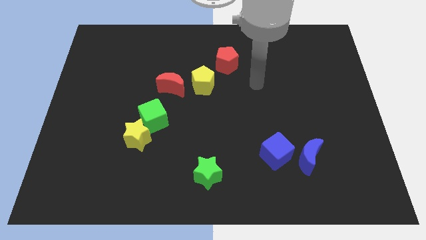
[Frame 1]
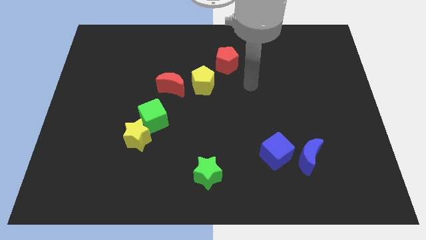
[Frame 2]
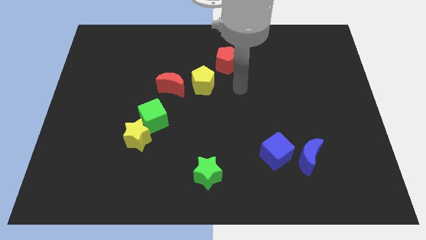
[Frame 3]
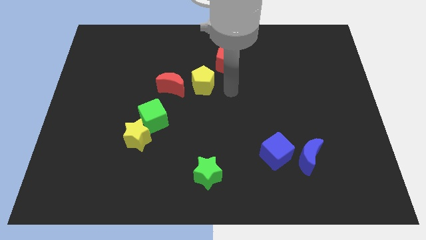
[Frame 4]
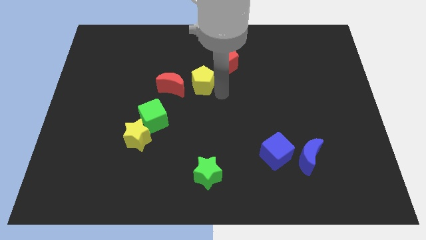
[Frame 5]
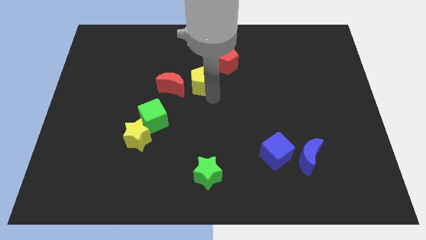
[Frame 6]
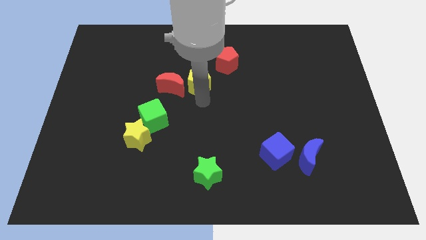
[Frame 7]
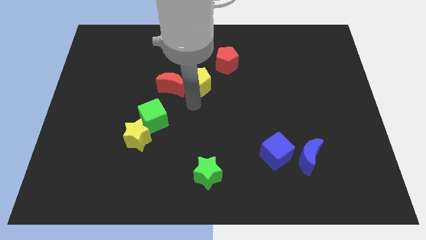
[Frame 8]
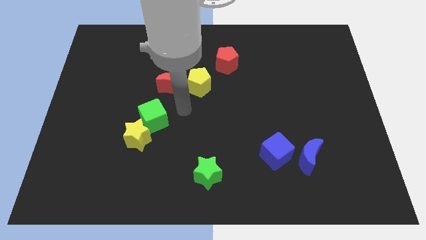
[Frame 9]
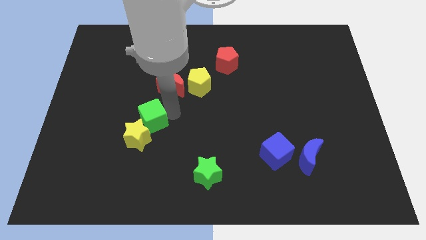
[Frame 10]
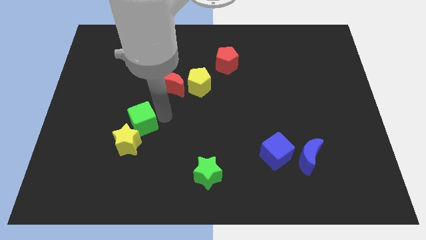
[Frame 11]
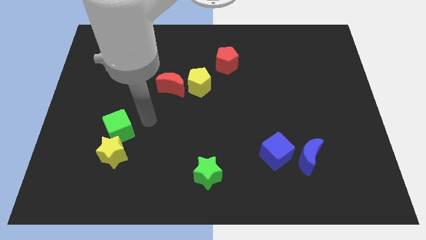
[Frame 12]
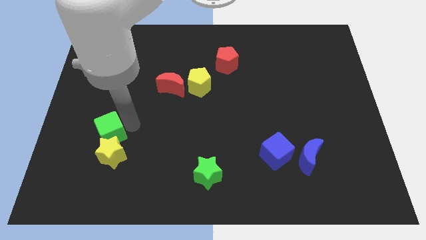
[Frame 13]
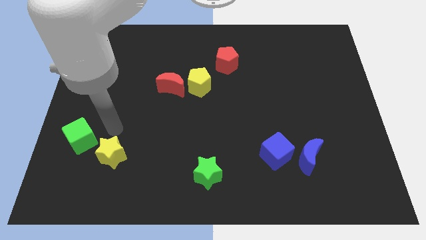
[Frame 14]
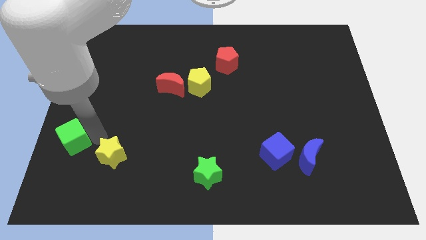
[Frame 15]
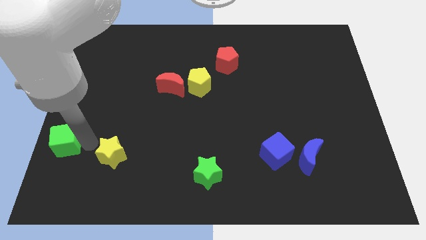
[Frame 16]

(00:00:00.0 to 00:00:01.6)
separate the yellow star from the green cube

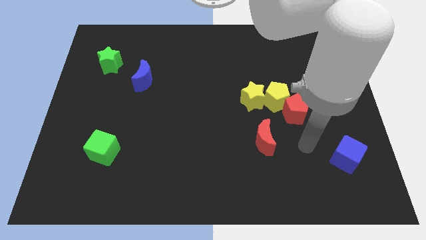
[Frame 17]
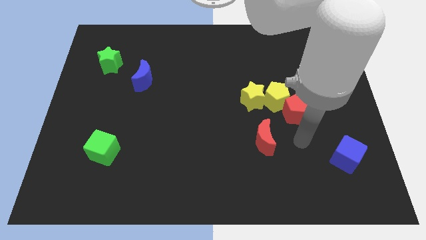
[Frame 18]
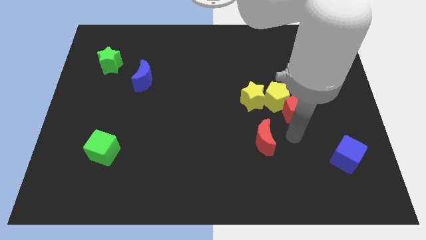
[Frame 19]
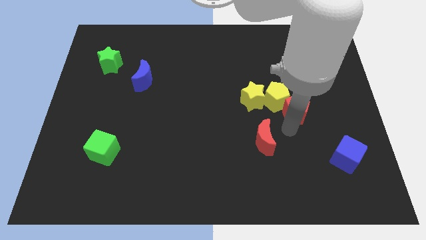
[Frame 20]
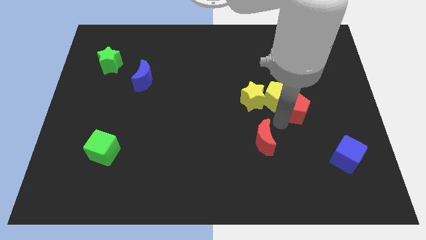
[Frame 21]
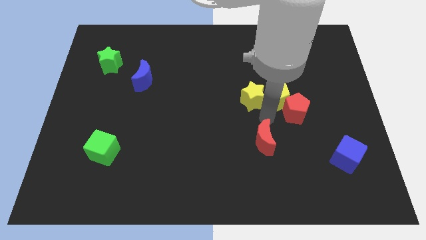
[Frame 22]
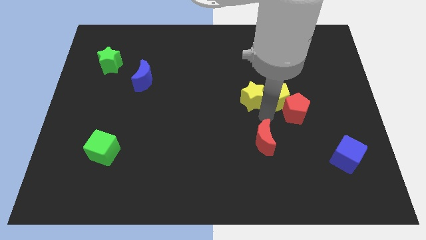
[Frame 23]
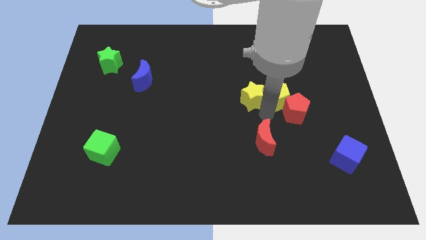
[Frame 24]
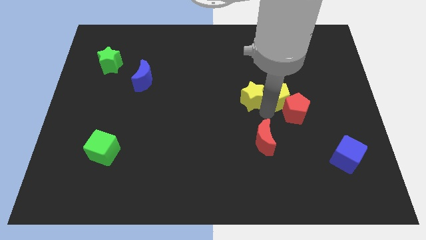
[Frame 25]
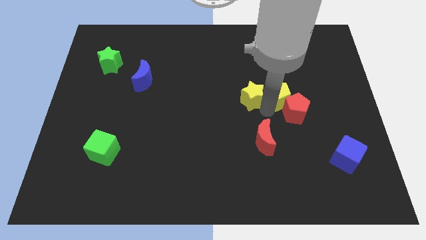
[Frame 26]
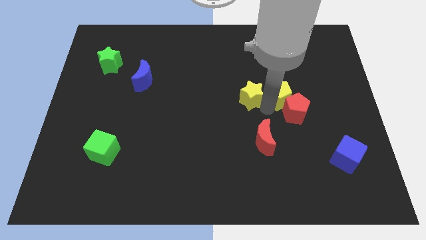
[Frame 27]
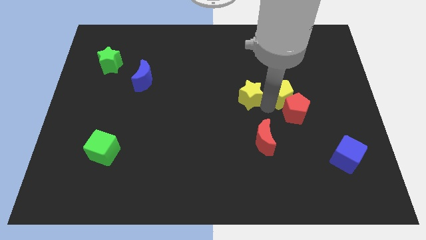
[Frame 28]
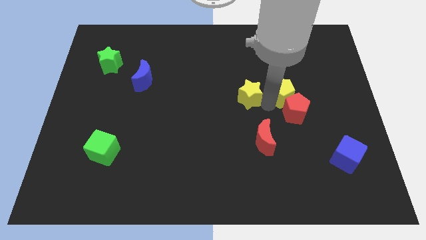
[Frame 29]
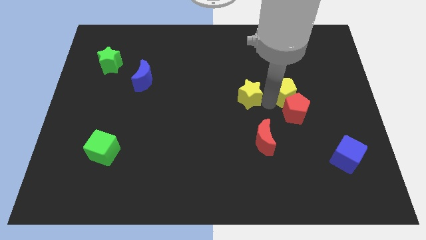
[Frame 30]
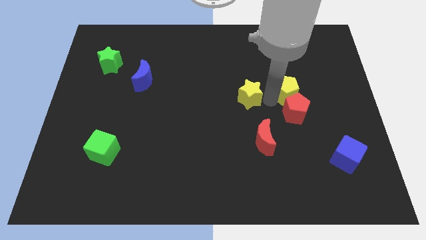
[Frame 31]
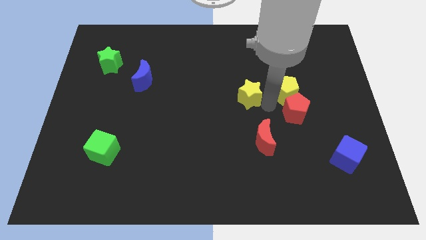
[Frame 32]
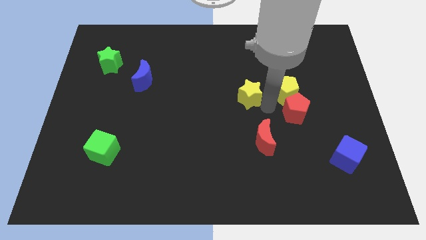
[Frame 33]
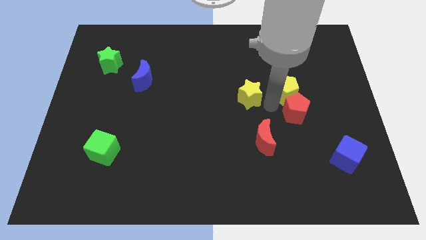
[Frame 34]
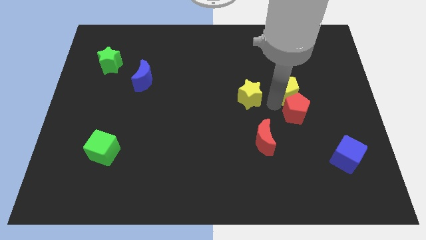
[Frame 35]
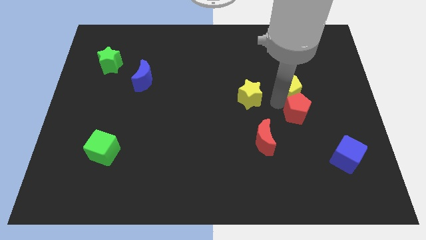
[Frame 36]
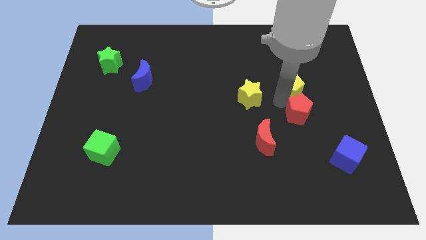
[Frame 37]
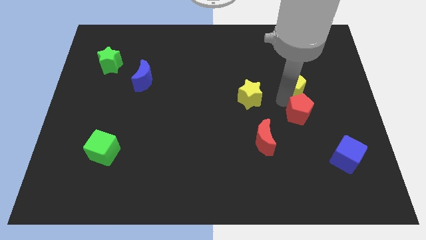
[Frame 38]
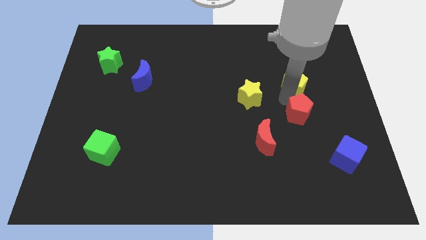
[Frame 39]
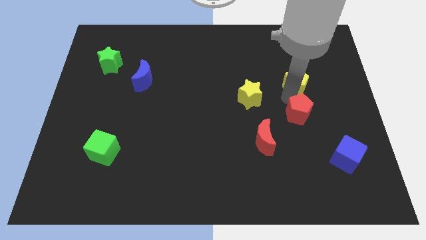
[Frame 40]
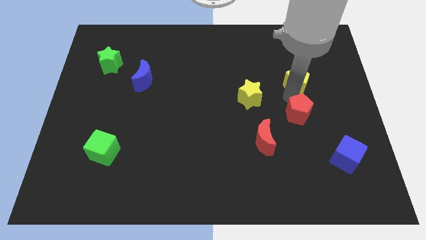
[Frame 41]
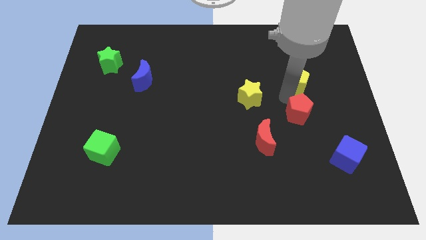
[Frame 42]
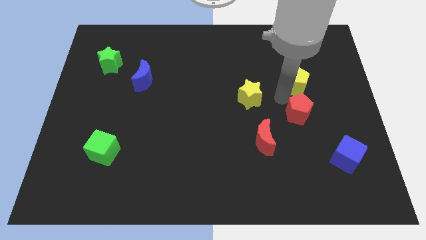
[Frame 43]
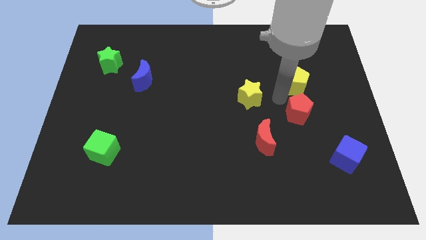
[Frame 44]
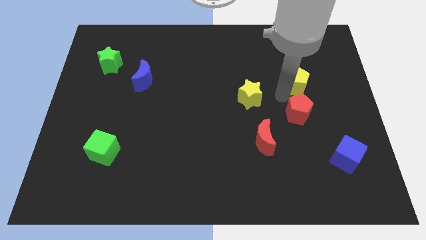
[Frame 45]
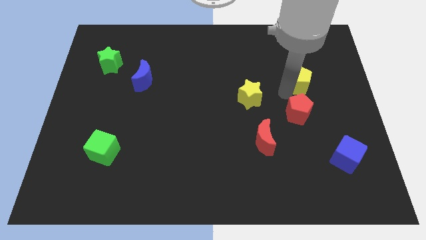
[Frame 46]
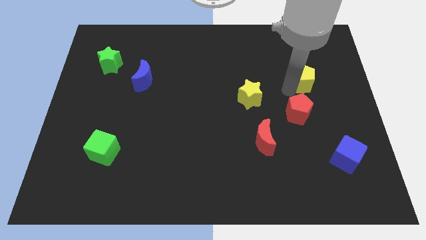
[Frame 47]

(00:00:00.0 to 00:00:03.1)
pull the yellow pentagon apart from the red pentagon and yellow star

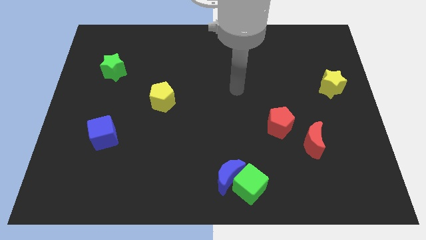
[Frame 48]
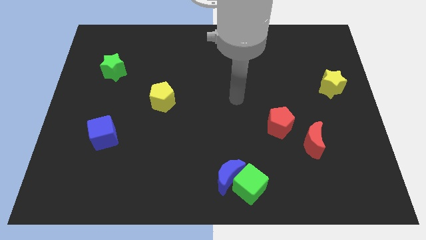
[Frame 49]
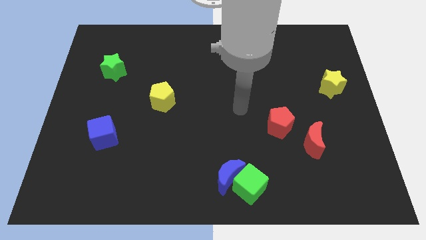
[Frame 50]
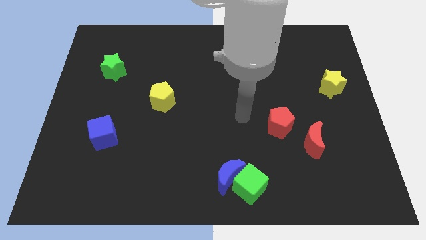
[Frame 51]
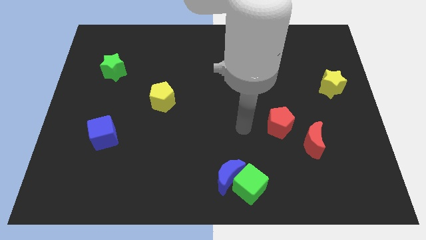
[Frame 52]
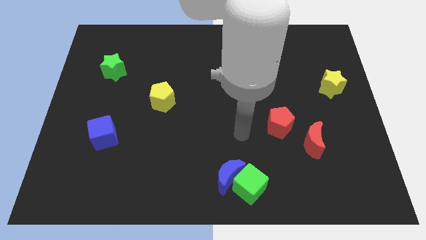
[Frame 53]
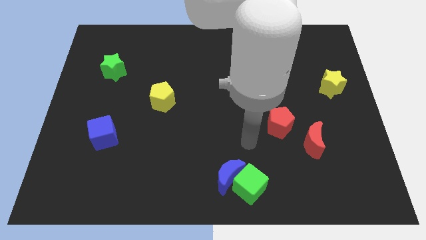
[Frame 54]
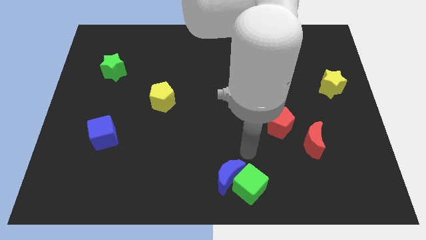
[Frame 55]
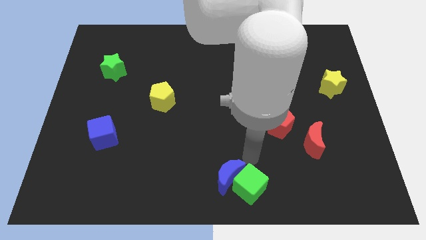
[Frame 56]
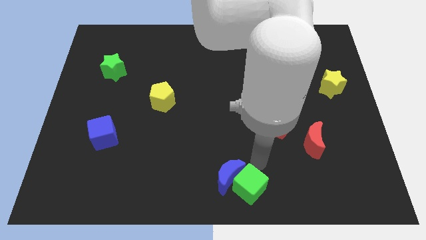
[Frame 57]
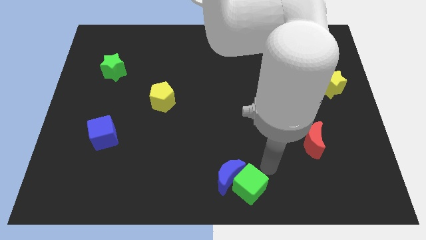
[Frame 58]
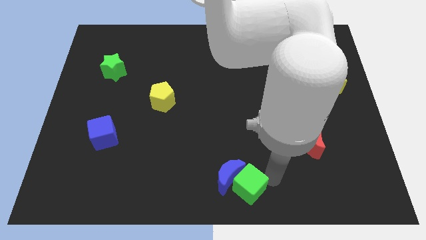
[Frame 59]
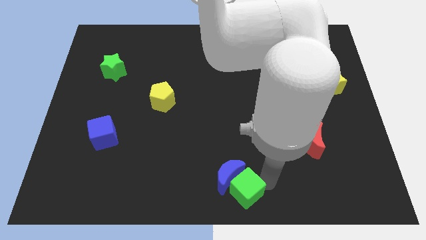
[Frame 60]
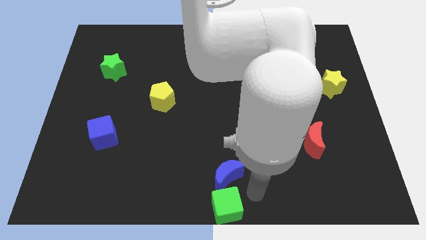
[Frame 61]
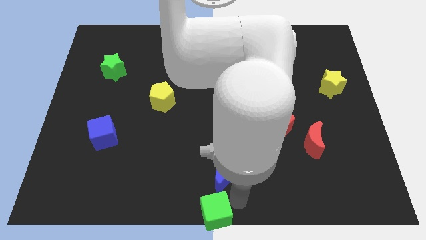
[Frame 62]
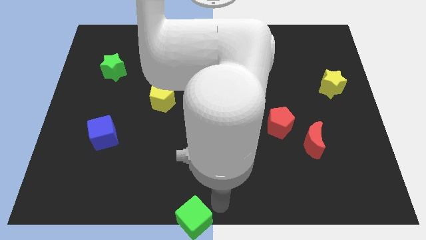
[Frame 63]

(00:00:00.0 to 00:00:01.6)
pull the blue moon apart from the green cube

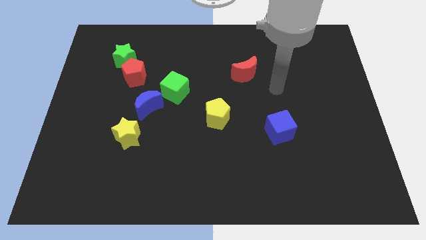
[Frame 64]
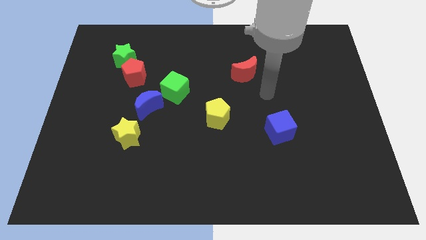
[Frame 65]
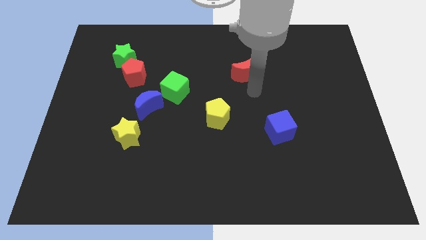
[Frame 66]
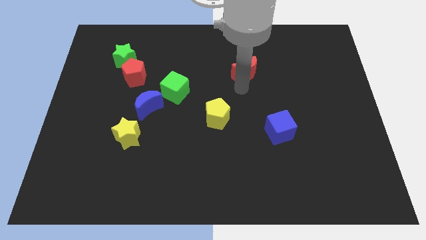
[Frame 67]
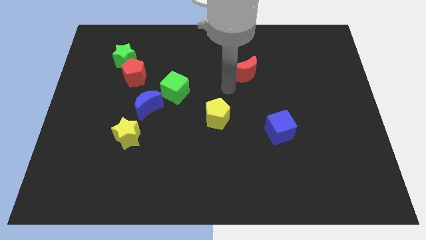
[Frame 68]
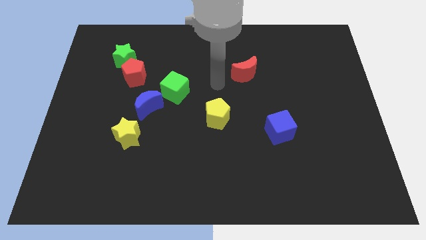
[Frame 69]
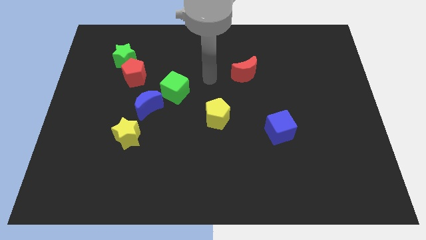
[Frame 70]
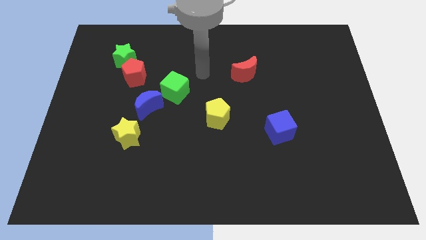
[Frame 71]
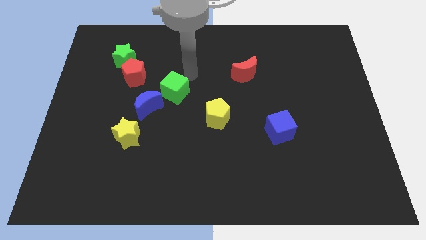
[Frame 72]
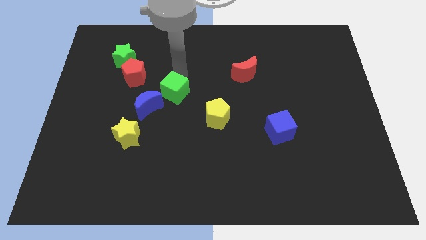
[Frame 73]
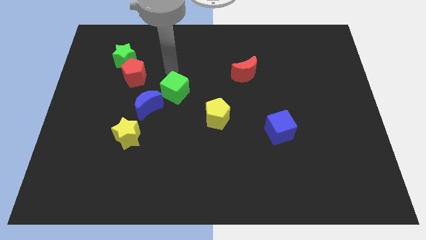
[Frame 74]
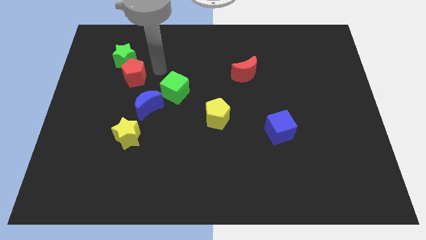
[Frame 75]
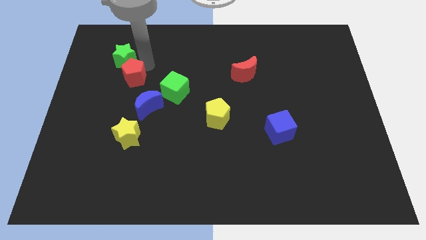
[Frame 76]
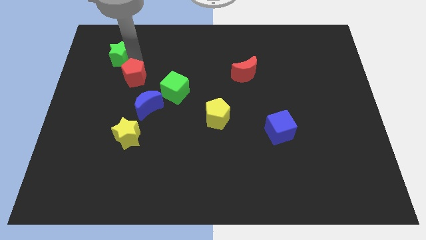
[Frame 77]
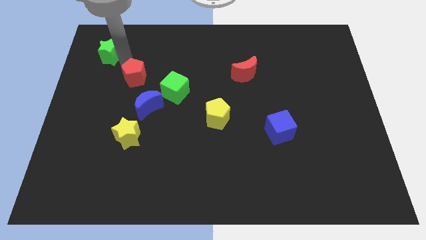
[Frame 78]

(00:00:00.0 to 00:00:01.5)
separate the red pentagon from the green star

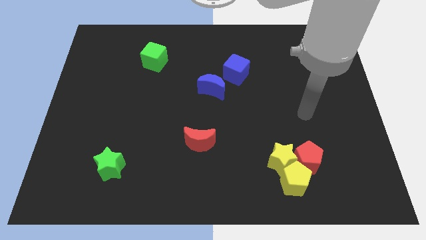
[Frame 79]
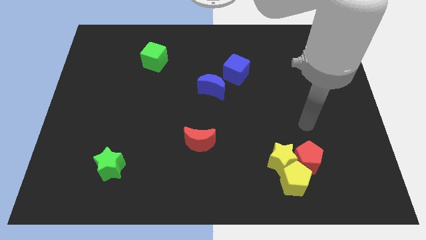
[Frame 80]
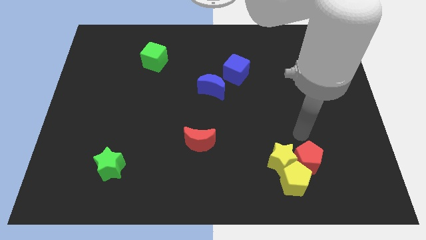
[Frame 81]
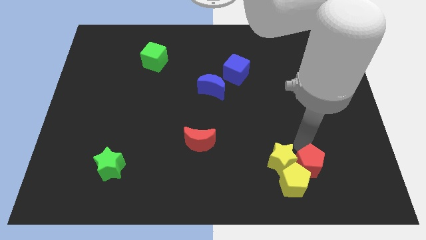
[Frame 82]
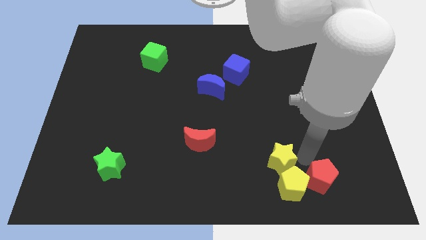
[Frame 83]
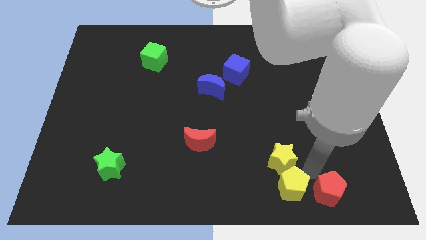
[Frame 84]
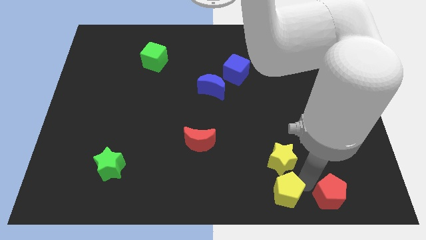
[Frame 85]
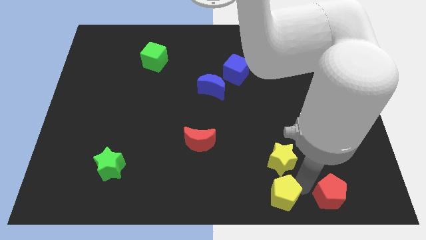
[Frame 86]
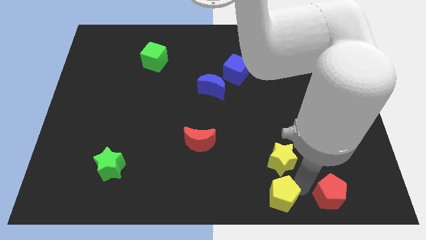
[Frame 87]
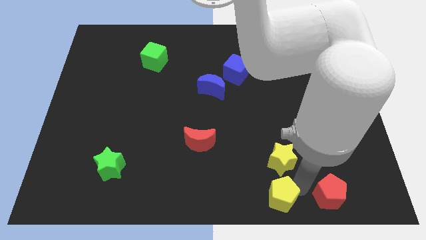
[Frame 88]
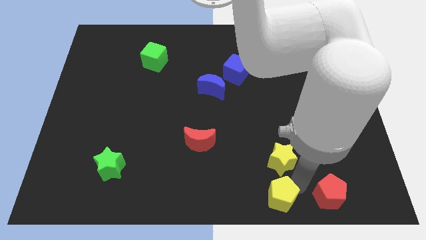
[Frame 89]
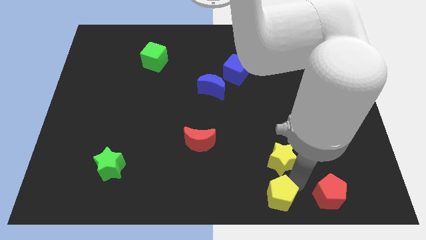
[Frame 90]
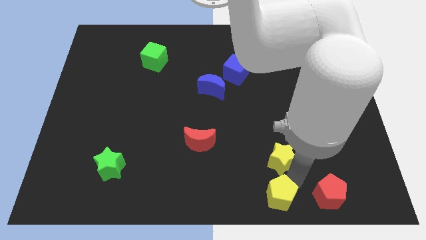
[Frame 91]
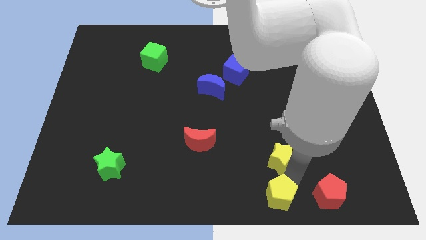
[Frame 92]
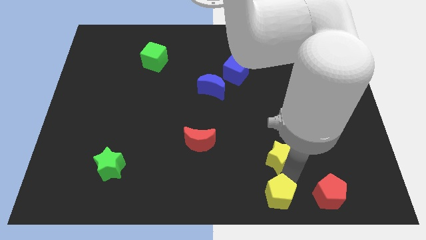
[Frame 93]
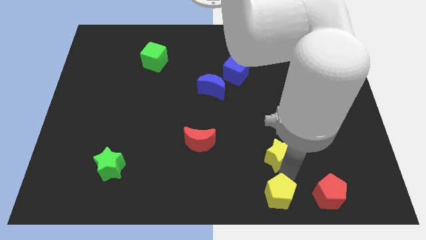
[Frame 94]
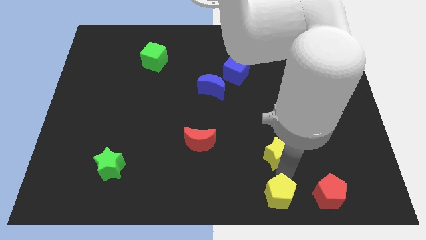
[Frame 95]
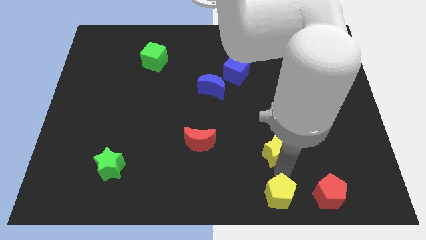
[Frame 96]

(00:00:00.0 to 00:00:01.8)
separate the yellow star from the red pentagon and yellow pentagon
